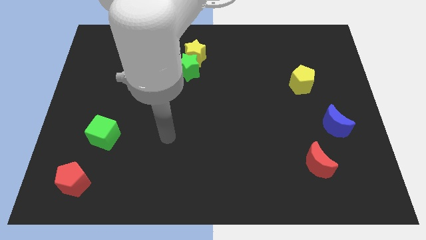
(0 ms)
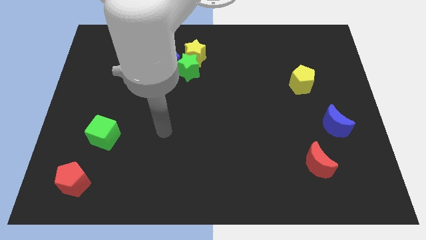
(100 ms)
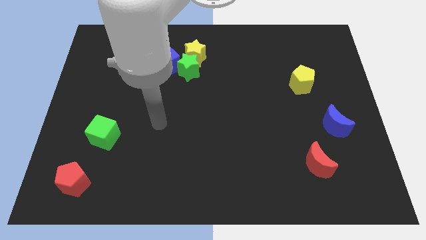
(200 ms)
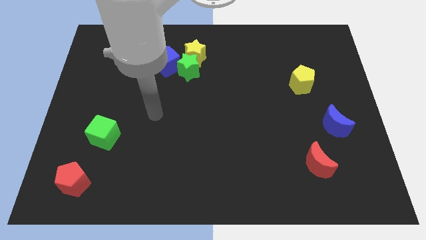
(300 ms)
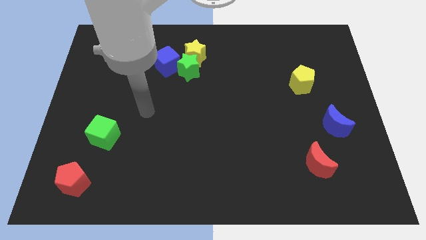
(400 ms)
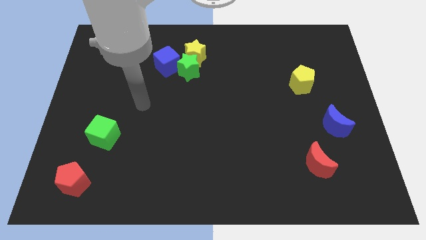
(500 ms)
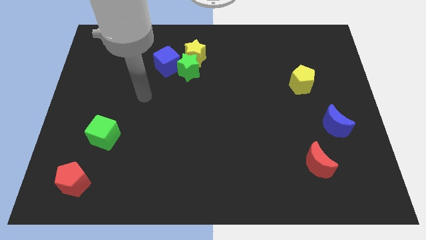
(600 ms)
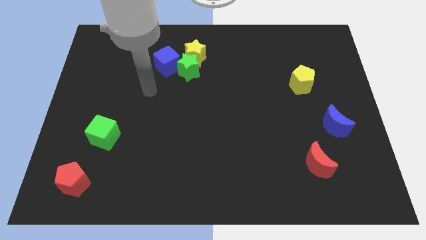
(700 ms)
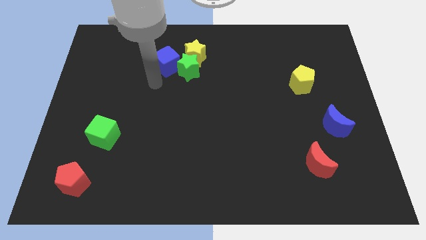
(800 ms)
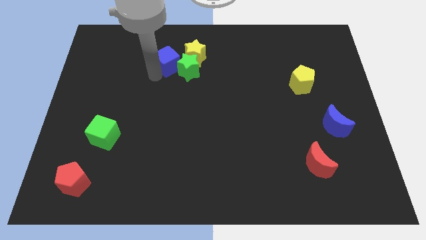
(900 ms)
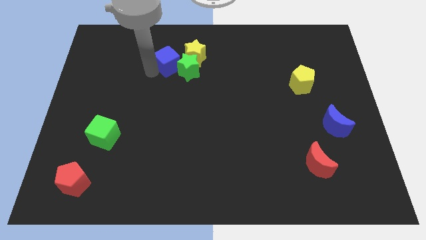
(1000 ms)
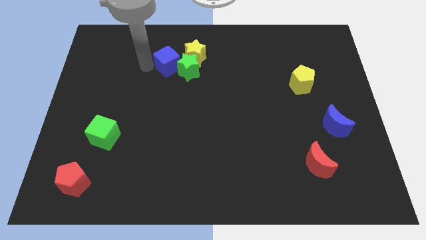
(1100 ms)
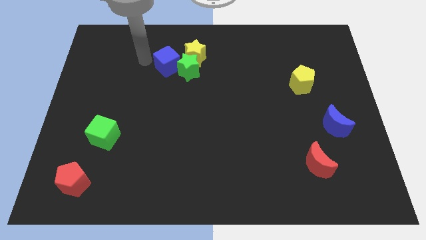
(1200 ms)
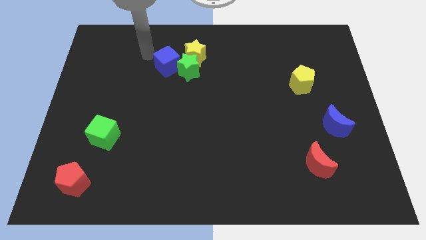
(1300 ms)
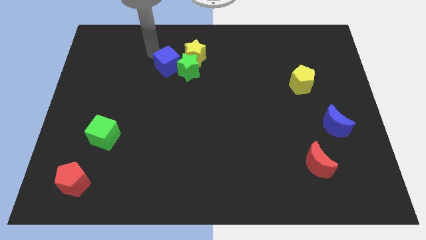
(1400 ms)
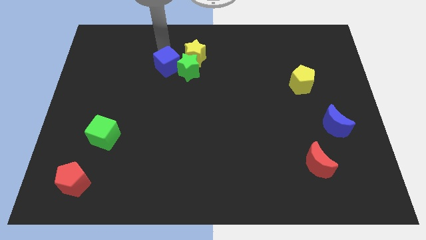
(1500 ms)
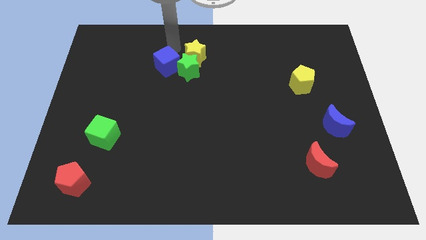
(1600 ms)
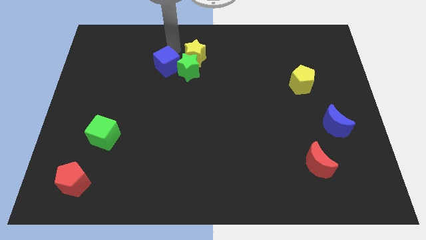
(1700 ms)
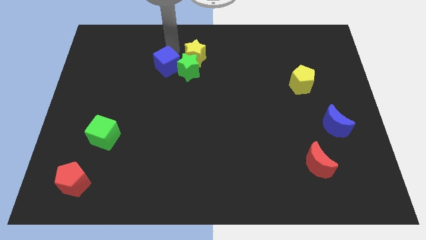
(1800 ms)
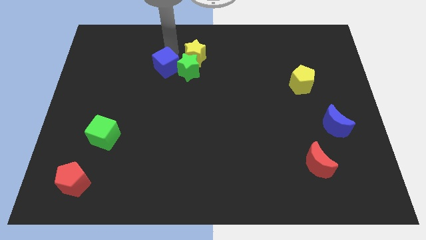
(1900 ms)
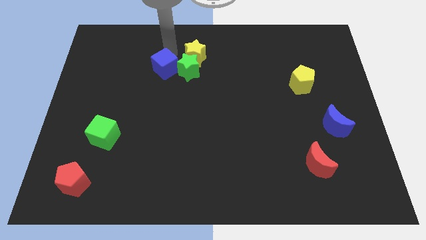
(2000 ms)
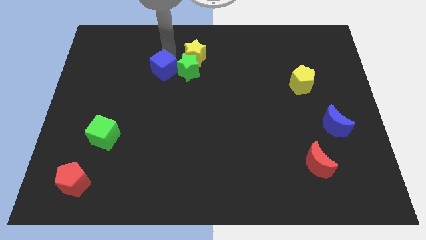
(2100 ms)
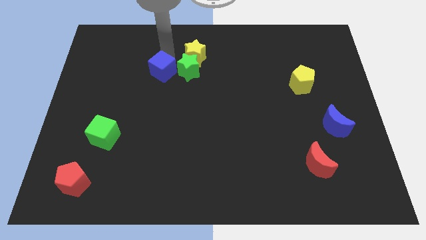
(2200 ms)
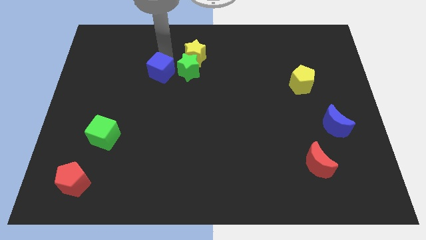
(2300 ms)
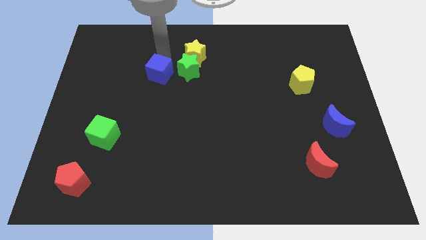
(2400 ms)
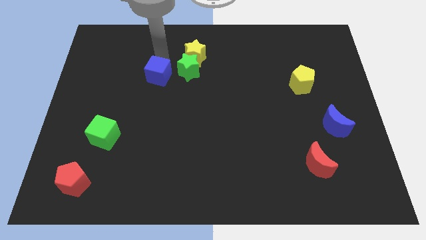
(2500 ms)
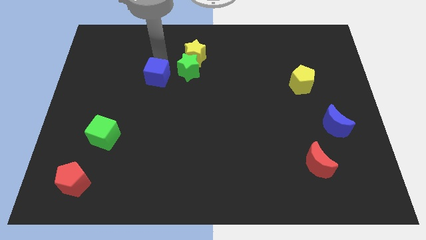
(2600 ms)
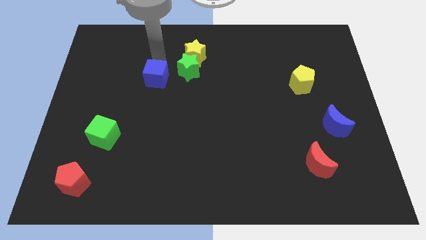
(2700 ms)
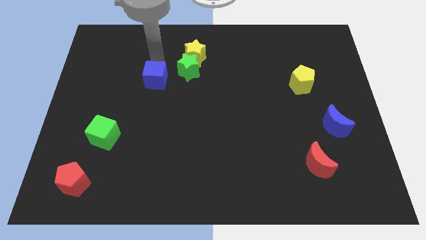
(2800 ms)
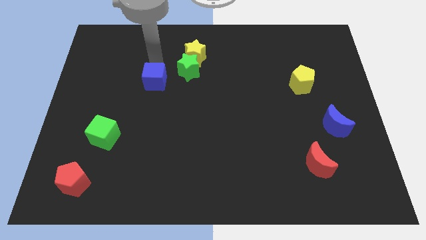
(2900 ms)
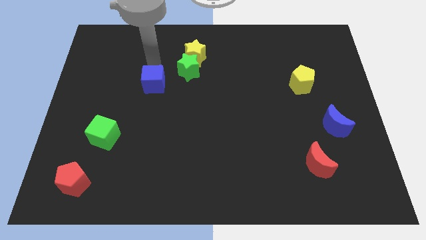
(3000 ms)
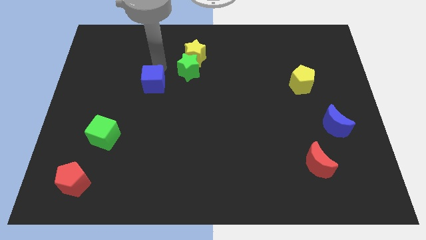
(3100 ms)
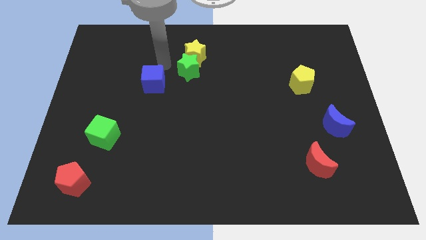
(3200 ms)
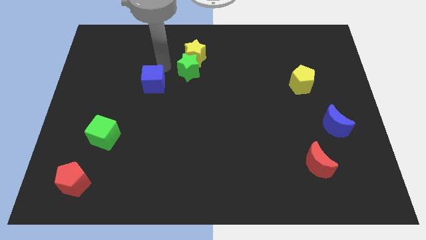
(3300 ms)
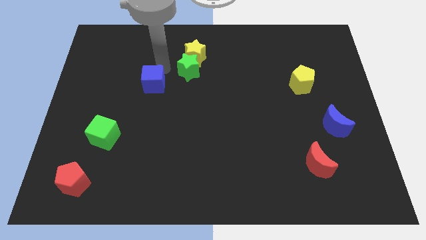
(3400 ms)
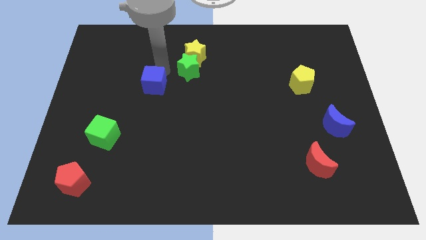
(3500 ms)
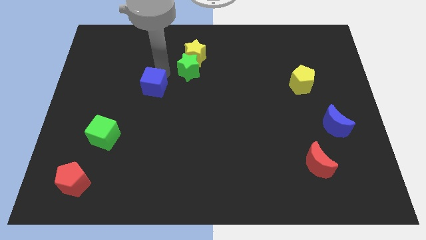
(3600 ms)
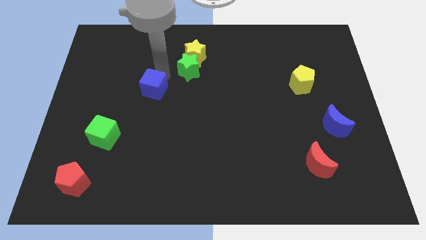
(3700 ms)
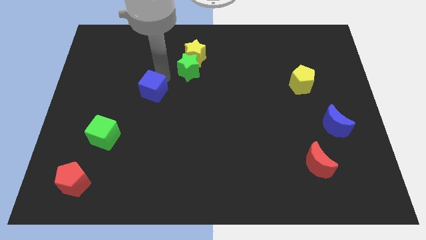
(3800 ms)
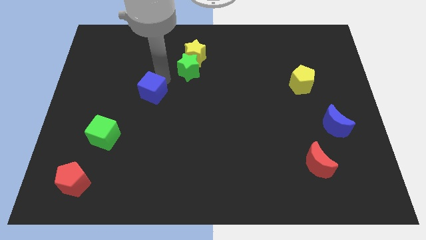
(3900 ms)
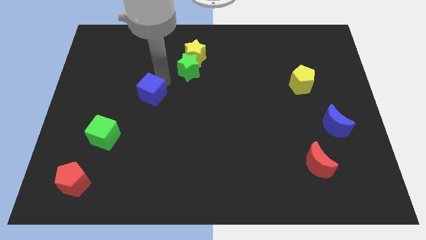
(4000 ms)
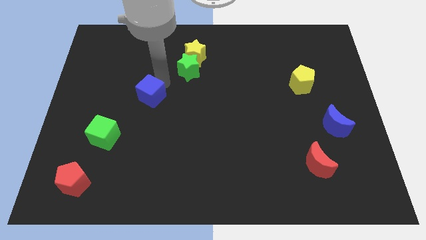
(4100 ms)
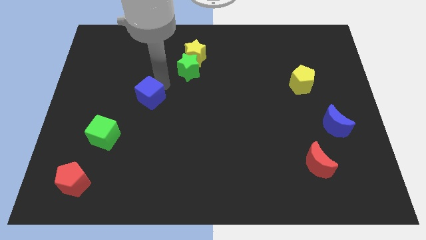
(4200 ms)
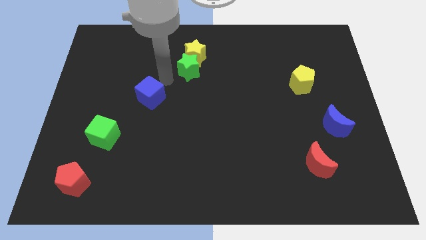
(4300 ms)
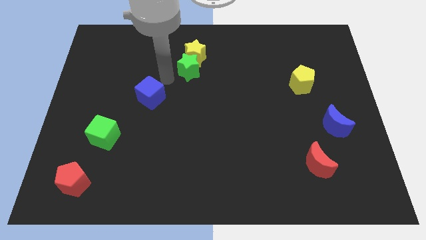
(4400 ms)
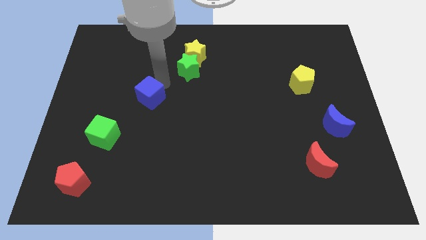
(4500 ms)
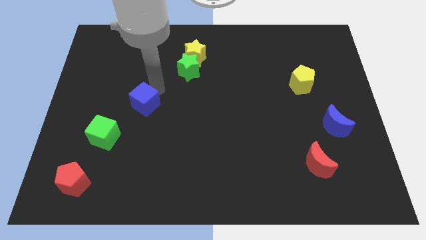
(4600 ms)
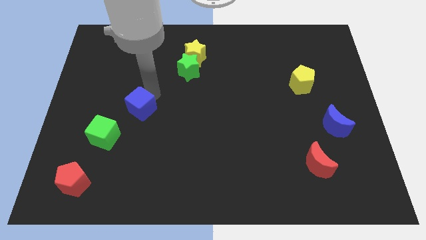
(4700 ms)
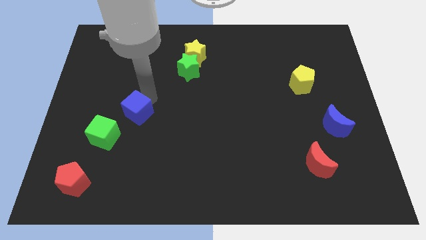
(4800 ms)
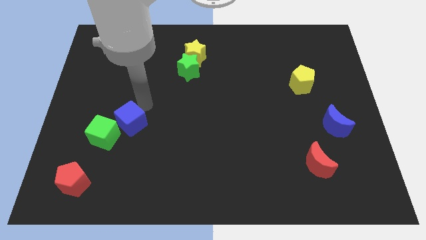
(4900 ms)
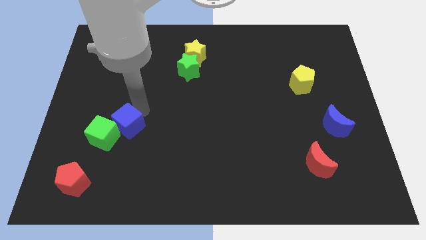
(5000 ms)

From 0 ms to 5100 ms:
slide the blue cube towards the green cube

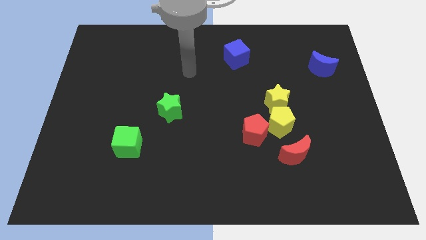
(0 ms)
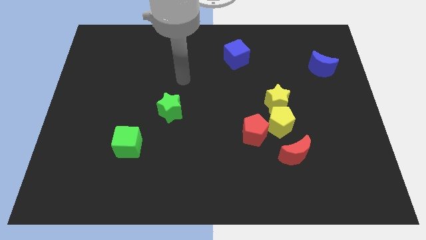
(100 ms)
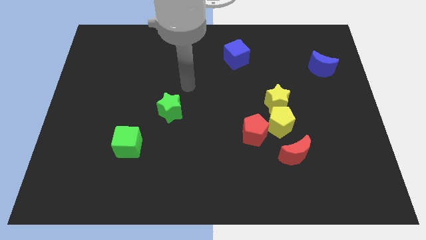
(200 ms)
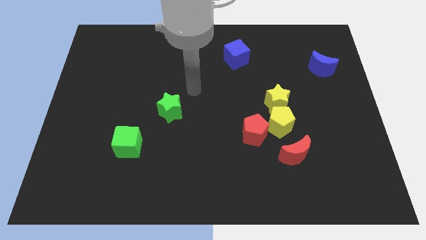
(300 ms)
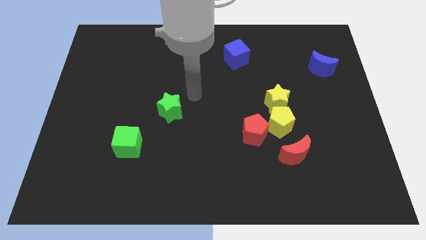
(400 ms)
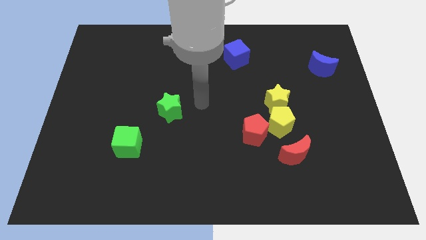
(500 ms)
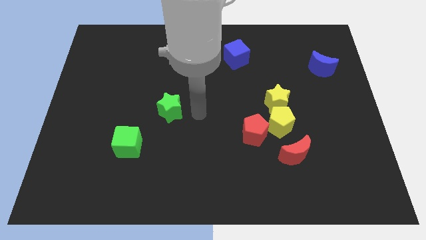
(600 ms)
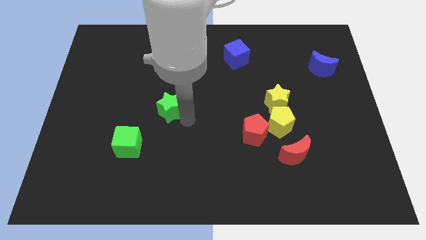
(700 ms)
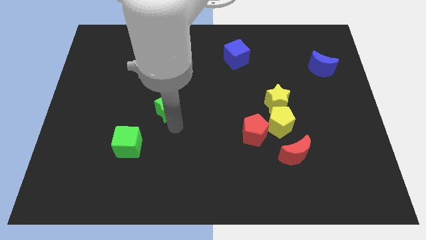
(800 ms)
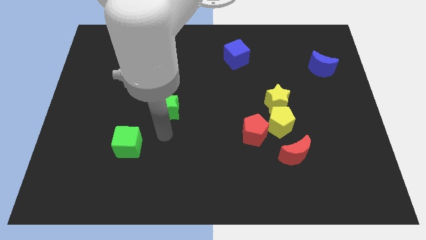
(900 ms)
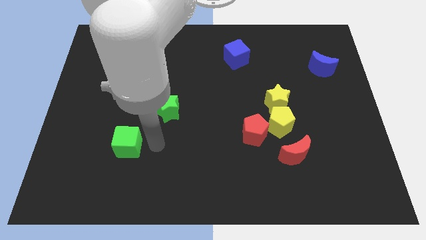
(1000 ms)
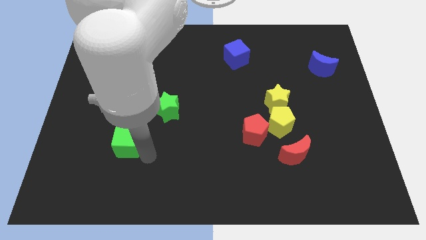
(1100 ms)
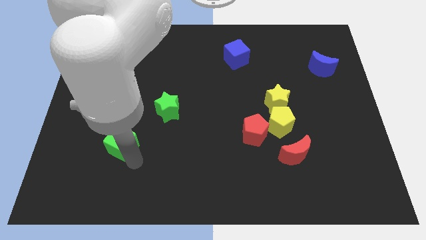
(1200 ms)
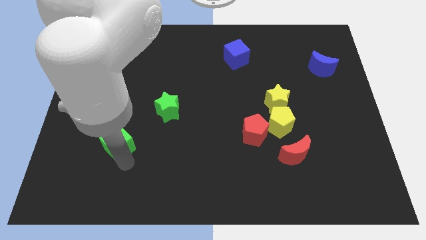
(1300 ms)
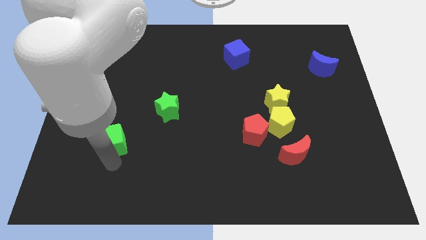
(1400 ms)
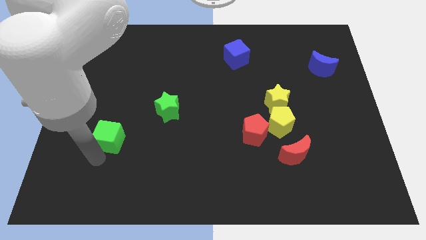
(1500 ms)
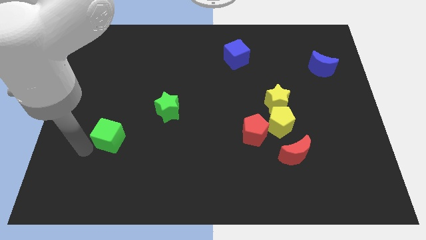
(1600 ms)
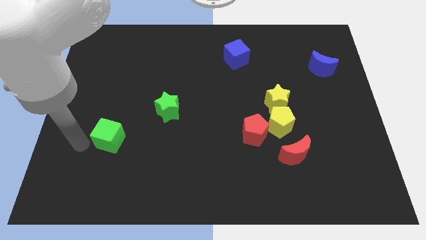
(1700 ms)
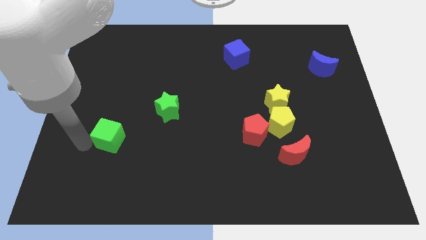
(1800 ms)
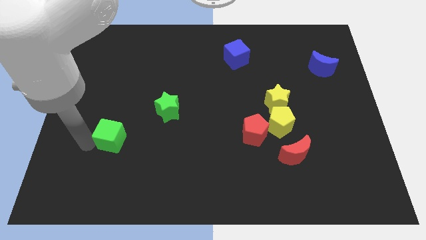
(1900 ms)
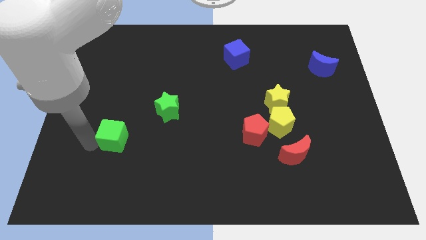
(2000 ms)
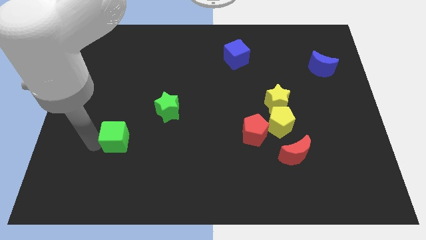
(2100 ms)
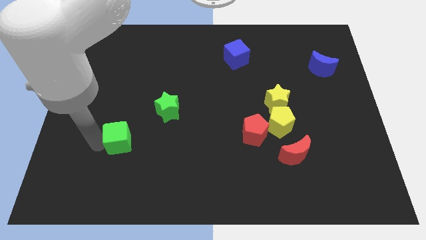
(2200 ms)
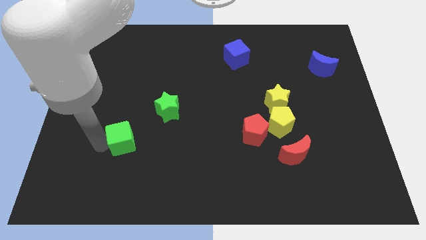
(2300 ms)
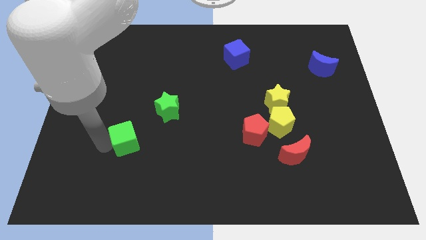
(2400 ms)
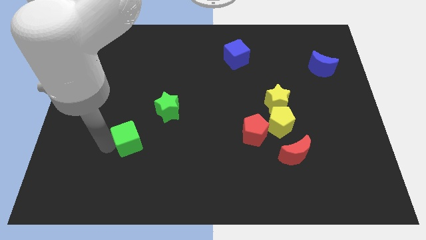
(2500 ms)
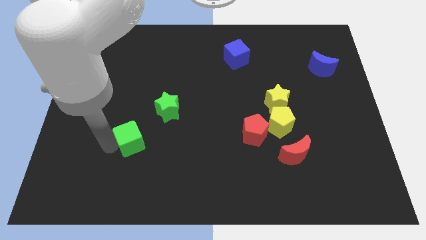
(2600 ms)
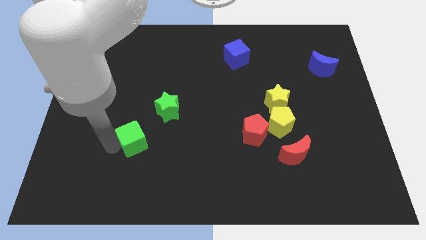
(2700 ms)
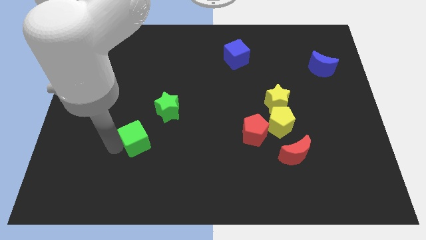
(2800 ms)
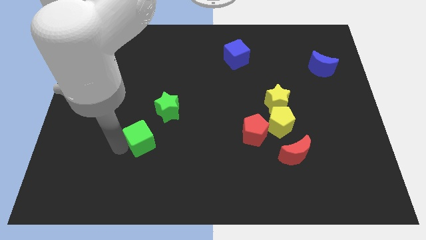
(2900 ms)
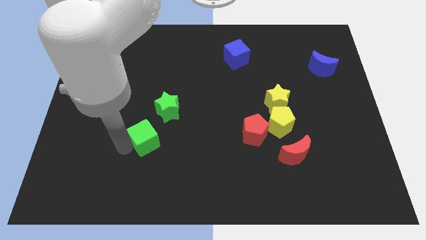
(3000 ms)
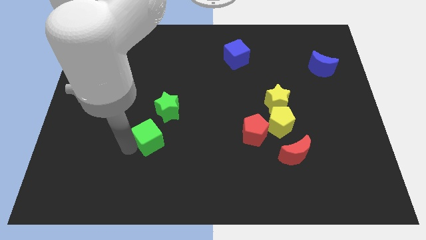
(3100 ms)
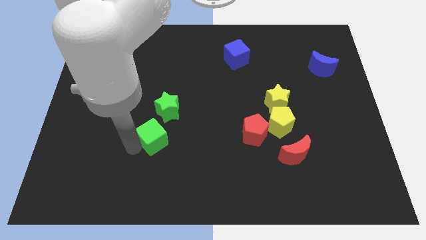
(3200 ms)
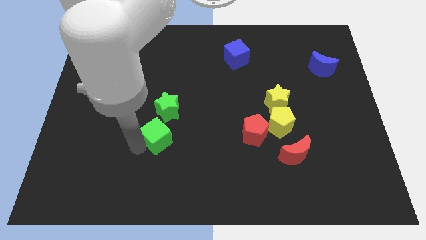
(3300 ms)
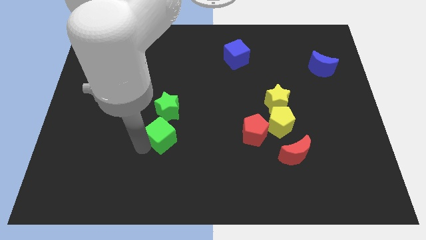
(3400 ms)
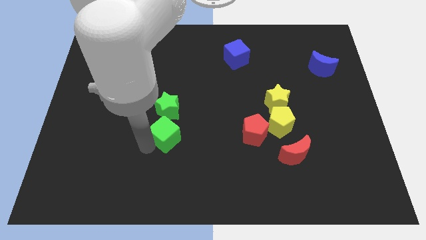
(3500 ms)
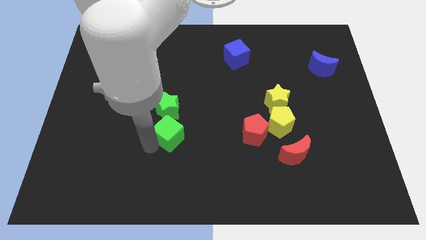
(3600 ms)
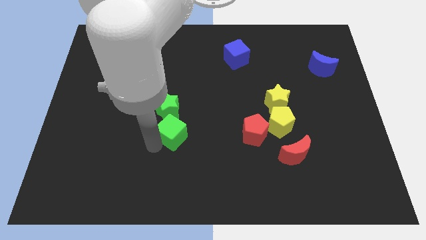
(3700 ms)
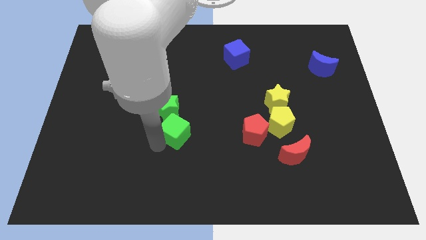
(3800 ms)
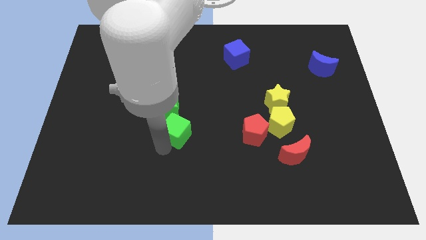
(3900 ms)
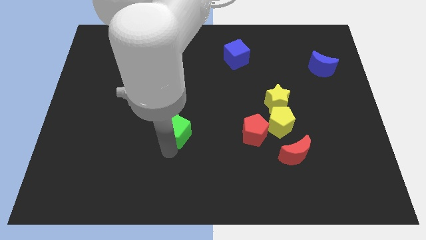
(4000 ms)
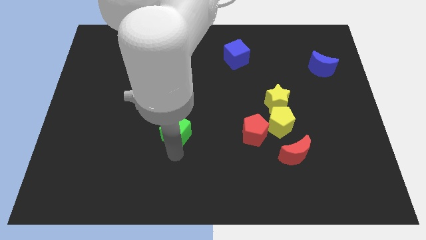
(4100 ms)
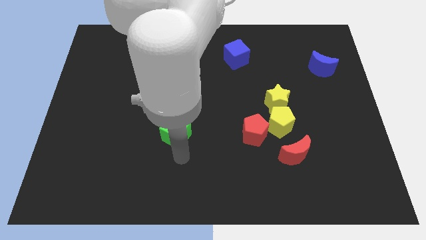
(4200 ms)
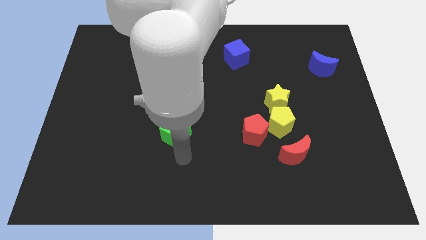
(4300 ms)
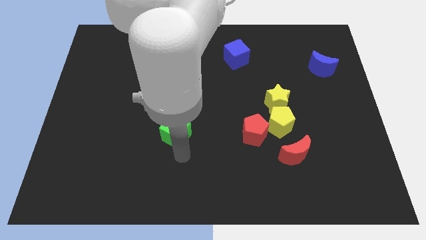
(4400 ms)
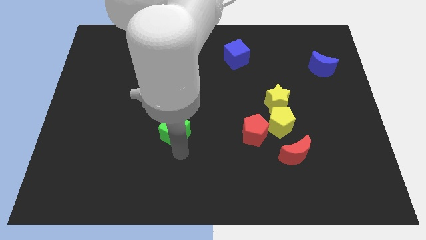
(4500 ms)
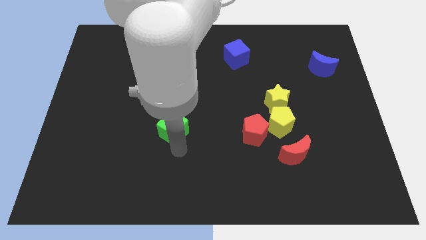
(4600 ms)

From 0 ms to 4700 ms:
slide the green cube close to the green star
